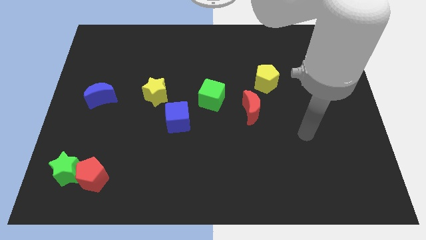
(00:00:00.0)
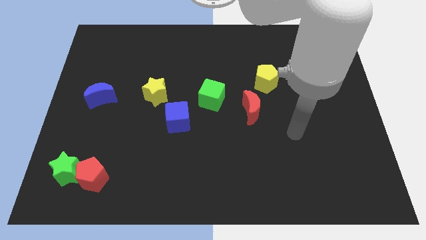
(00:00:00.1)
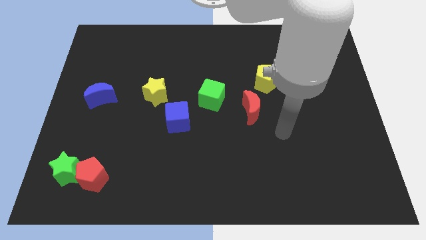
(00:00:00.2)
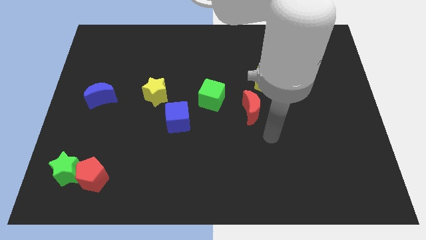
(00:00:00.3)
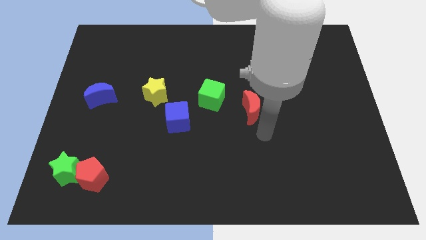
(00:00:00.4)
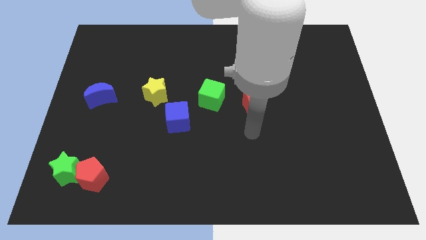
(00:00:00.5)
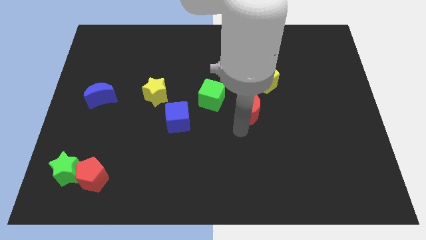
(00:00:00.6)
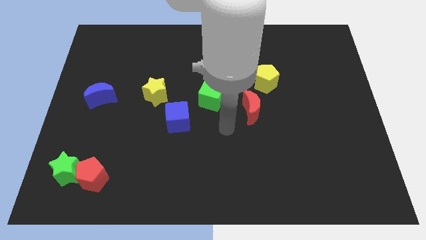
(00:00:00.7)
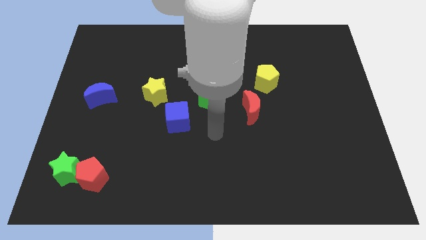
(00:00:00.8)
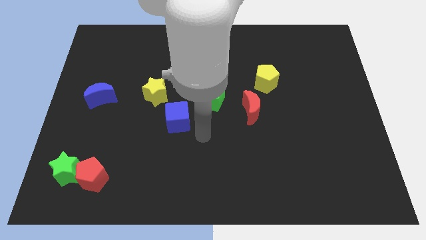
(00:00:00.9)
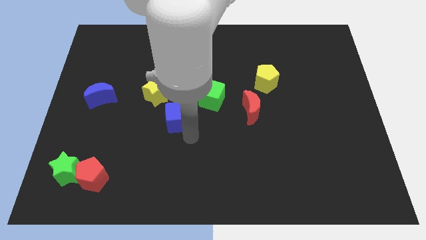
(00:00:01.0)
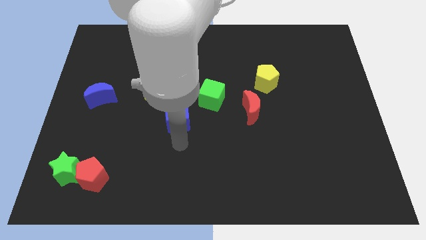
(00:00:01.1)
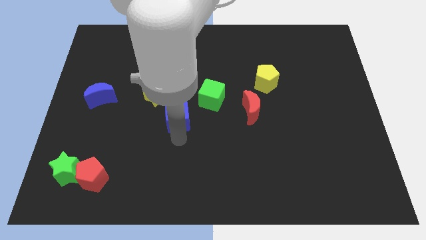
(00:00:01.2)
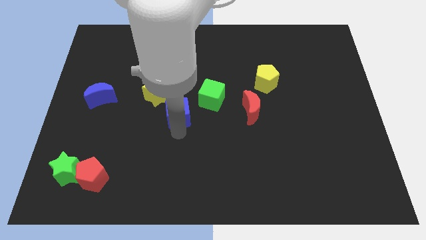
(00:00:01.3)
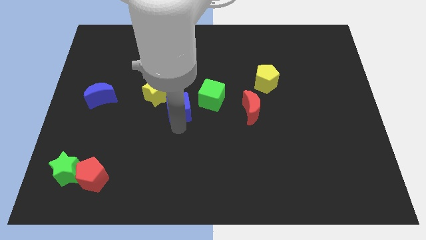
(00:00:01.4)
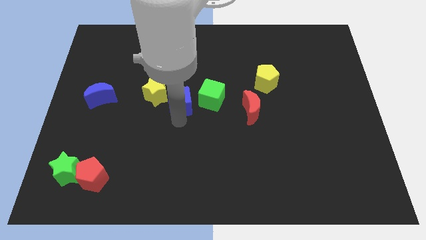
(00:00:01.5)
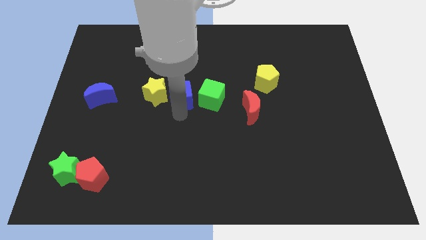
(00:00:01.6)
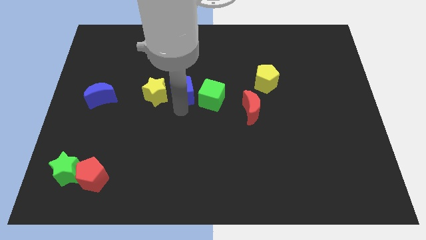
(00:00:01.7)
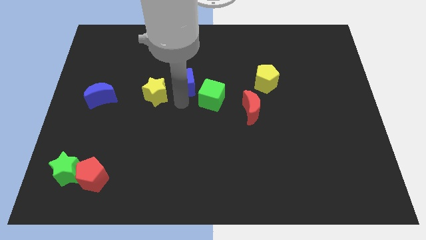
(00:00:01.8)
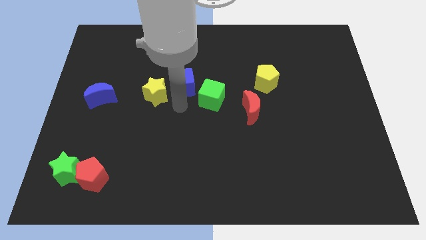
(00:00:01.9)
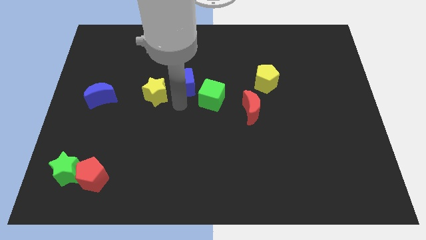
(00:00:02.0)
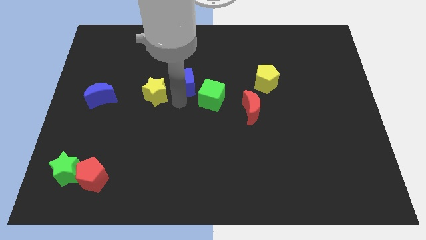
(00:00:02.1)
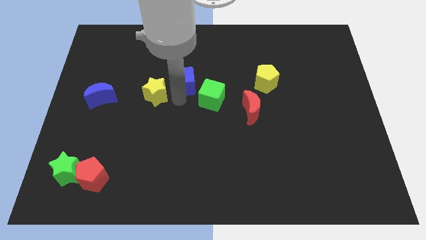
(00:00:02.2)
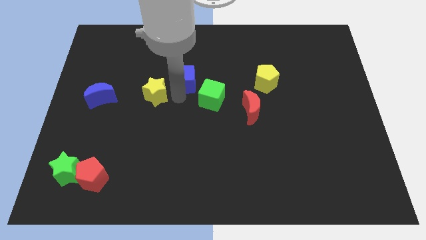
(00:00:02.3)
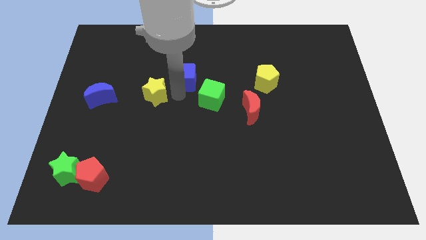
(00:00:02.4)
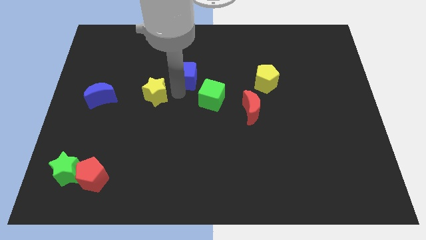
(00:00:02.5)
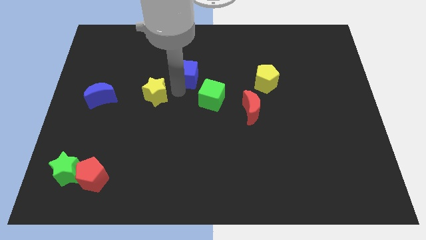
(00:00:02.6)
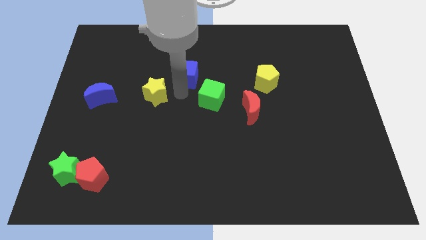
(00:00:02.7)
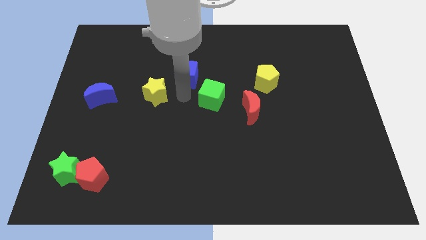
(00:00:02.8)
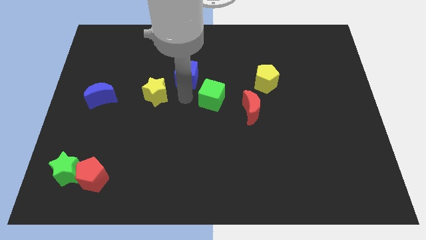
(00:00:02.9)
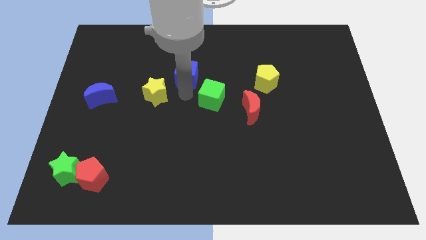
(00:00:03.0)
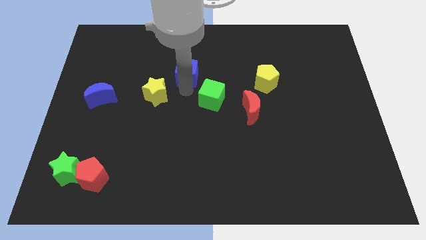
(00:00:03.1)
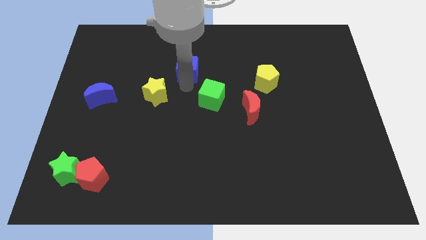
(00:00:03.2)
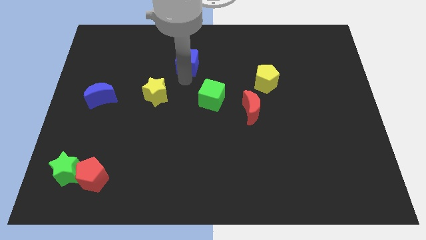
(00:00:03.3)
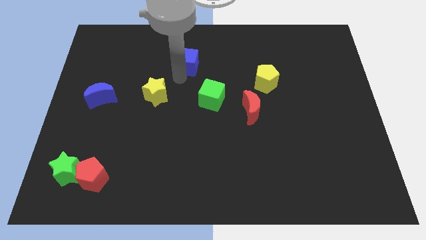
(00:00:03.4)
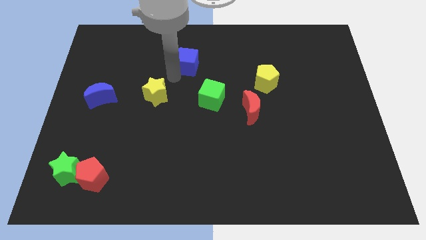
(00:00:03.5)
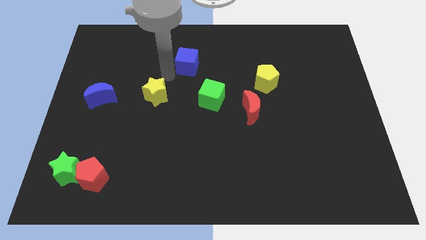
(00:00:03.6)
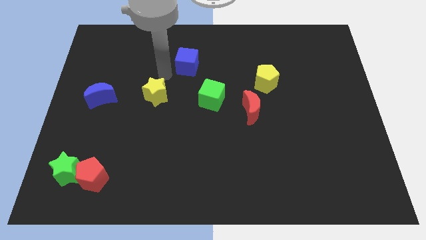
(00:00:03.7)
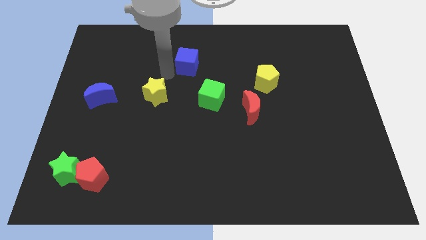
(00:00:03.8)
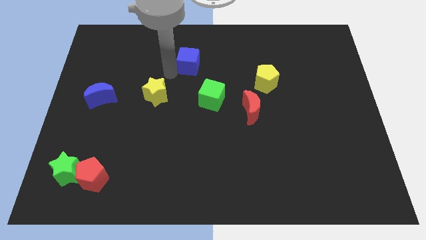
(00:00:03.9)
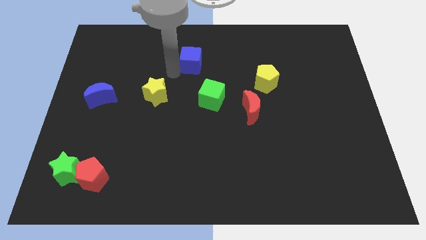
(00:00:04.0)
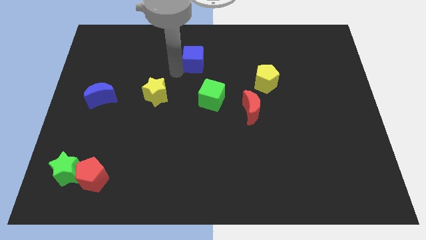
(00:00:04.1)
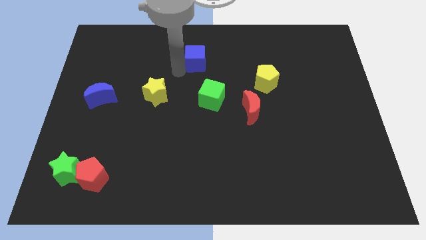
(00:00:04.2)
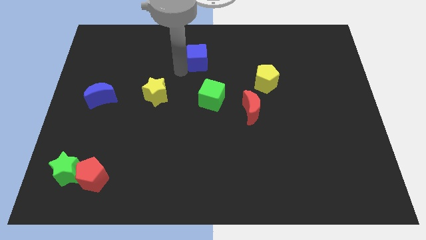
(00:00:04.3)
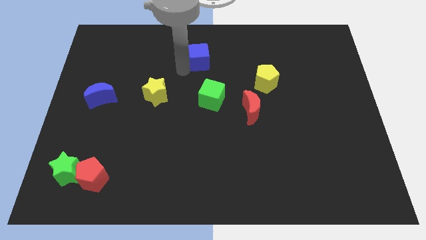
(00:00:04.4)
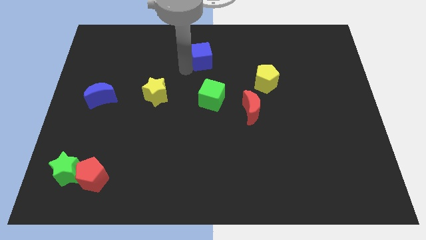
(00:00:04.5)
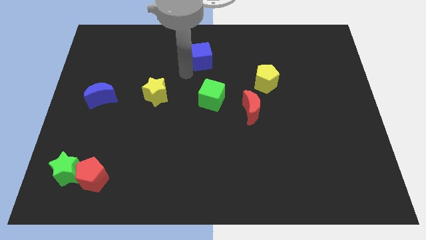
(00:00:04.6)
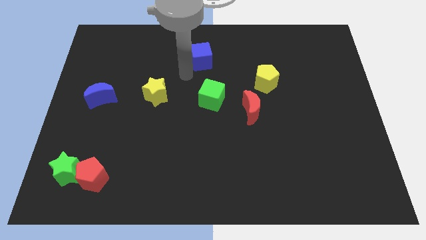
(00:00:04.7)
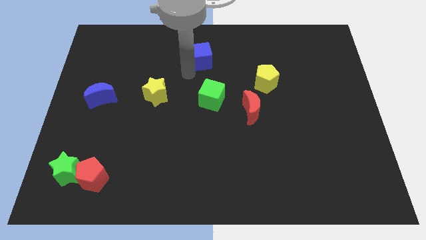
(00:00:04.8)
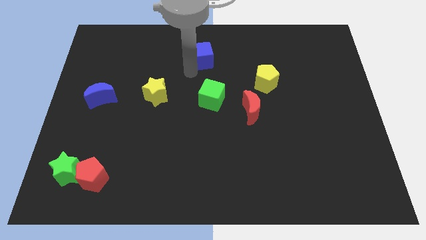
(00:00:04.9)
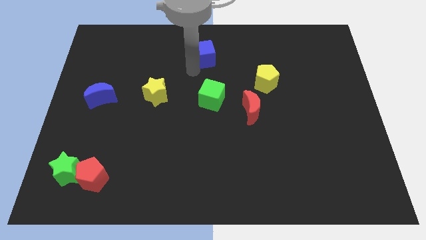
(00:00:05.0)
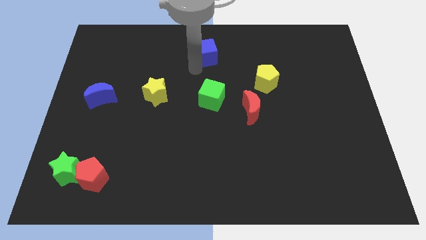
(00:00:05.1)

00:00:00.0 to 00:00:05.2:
put the blue cube to the towards your base

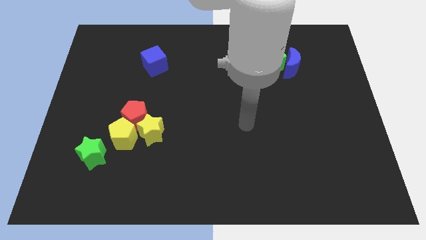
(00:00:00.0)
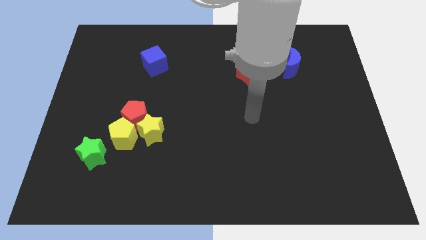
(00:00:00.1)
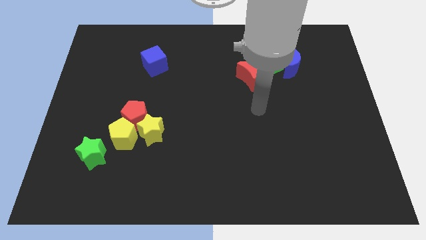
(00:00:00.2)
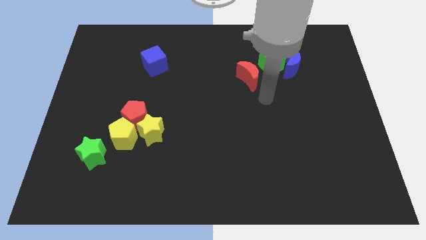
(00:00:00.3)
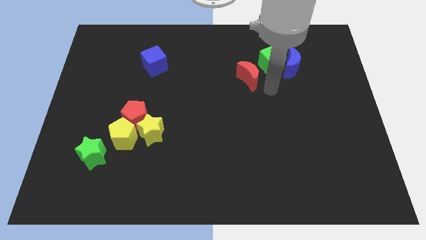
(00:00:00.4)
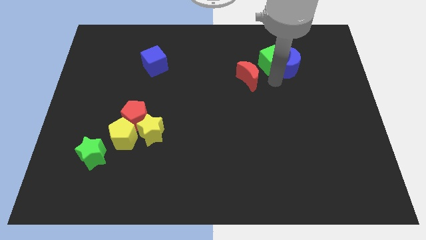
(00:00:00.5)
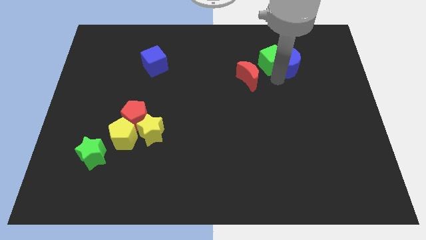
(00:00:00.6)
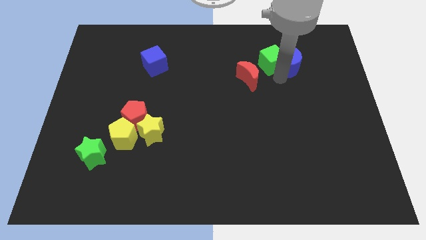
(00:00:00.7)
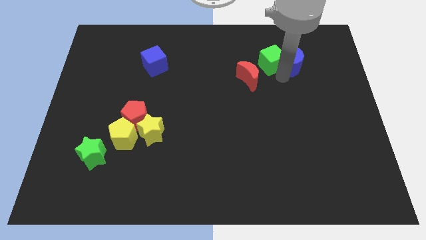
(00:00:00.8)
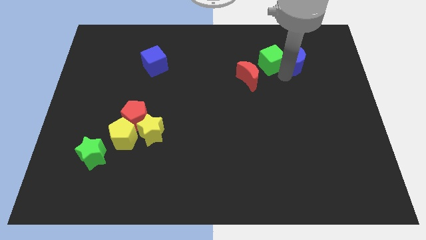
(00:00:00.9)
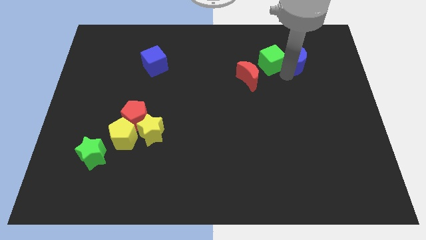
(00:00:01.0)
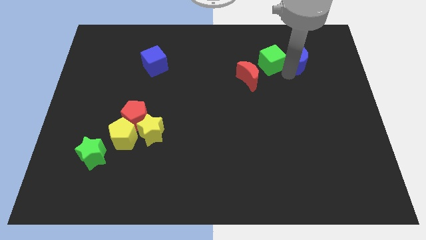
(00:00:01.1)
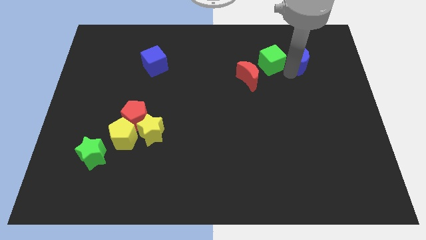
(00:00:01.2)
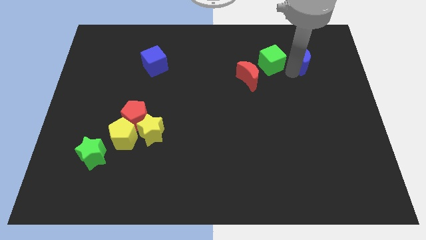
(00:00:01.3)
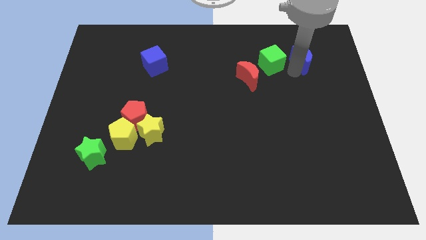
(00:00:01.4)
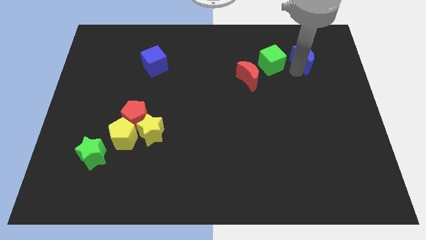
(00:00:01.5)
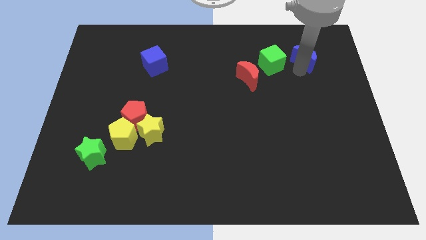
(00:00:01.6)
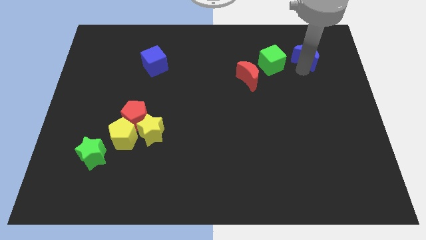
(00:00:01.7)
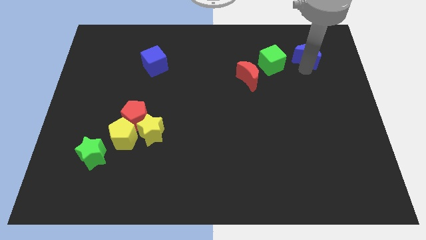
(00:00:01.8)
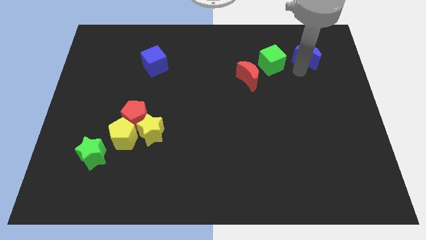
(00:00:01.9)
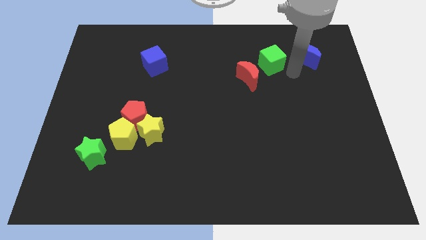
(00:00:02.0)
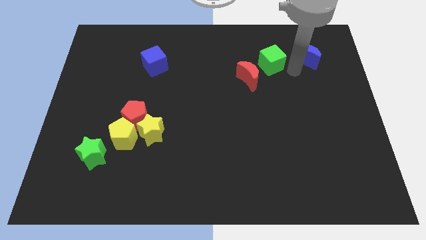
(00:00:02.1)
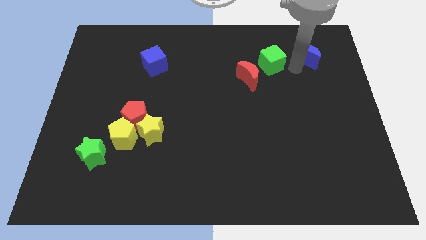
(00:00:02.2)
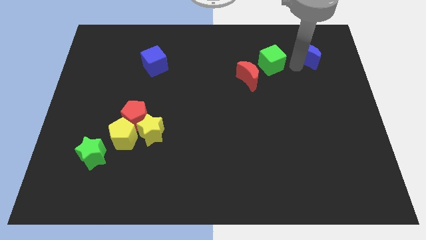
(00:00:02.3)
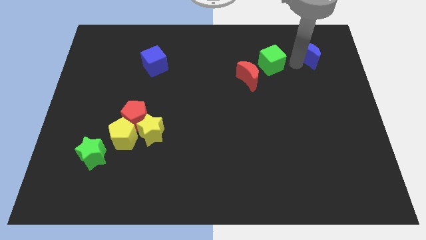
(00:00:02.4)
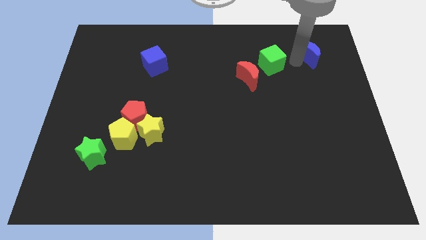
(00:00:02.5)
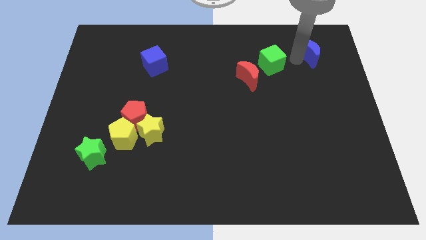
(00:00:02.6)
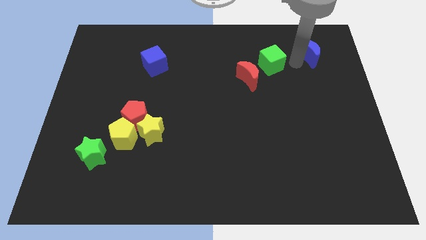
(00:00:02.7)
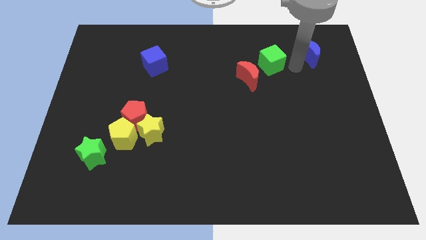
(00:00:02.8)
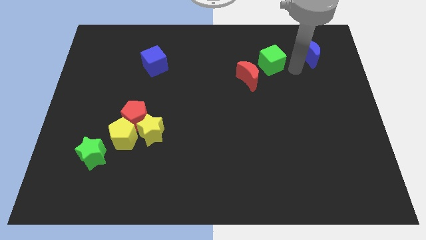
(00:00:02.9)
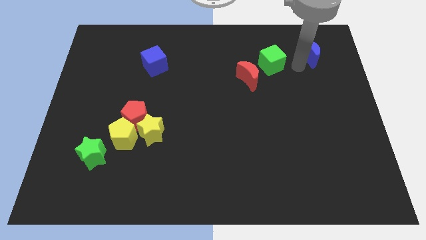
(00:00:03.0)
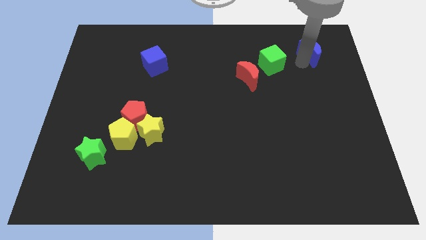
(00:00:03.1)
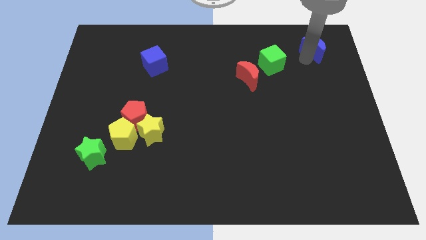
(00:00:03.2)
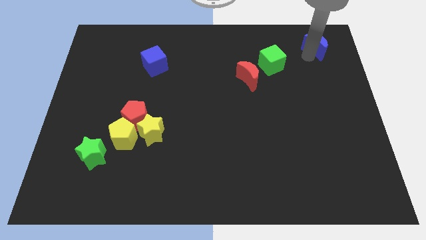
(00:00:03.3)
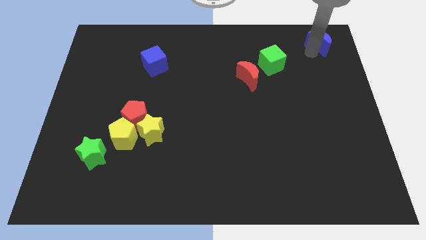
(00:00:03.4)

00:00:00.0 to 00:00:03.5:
push the blue moon to the upper right corner
